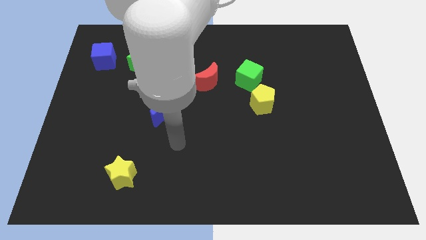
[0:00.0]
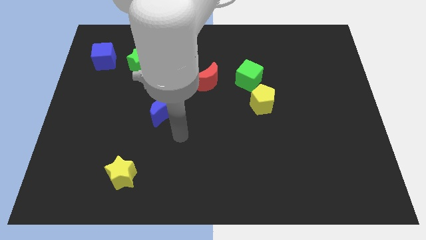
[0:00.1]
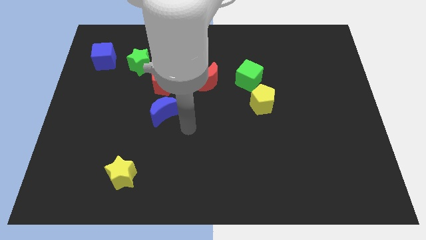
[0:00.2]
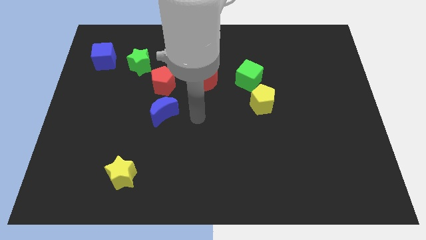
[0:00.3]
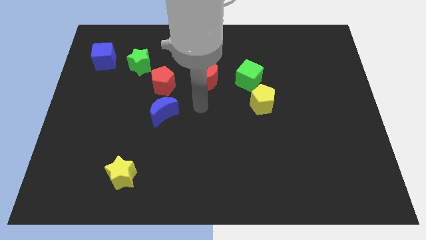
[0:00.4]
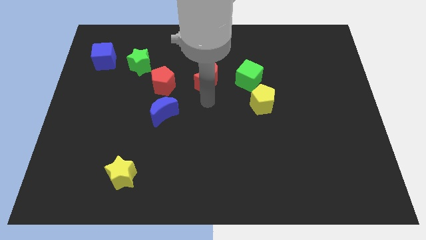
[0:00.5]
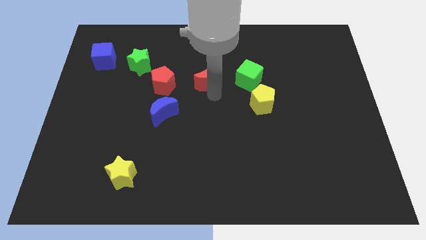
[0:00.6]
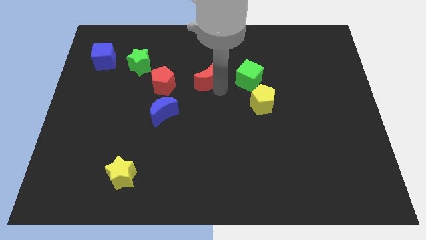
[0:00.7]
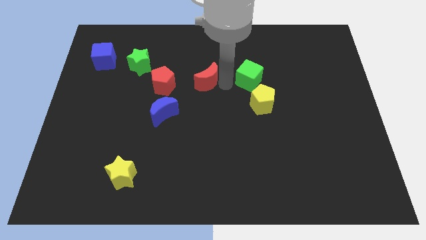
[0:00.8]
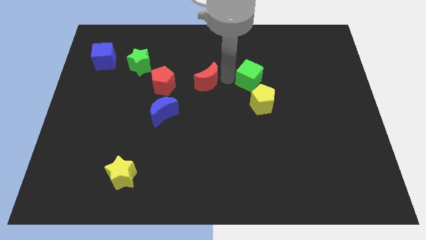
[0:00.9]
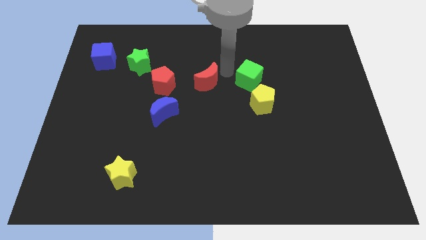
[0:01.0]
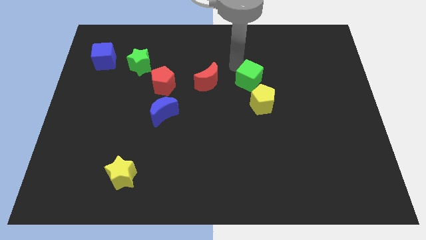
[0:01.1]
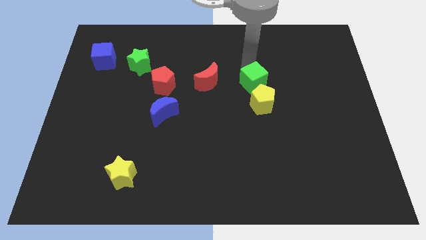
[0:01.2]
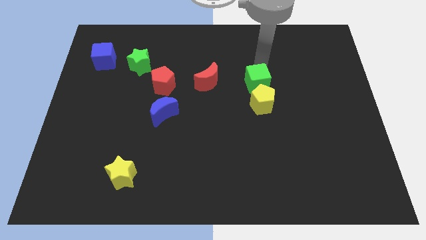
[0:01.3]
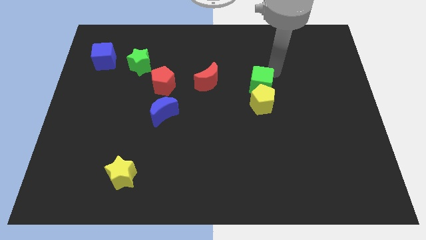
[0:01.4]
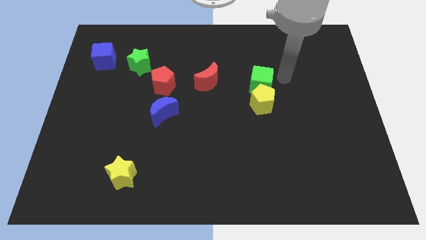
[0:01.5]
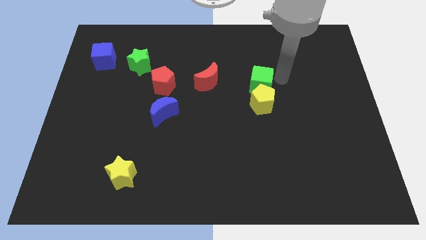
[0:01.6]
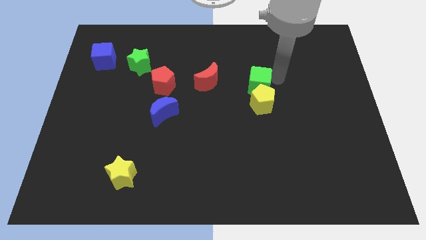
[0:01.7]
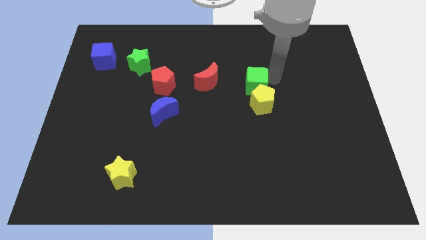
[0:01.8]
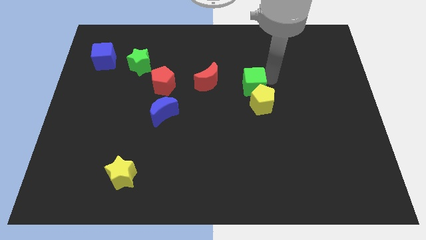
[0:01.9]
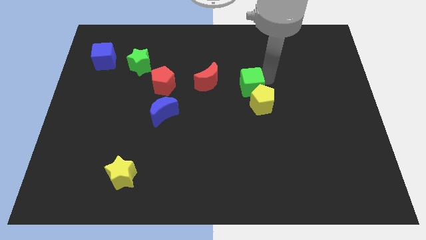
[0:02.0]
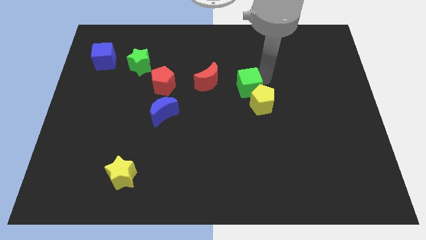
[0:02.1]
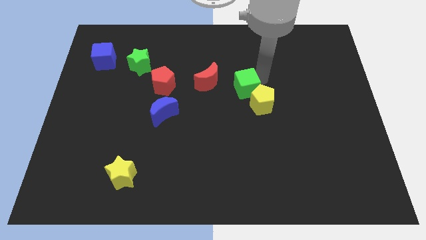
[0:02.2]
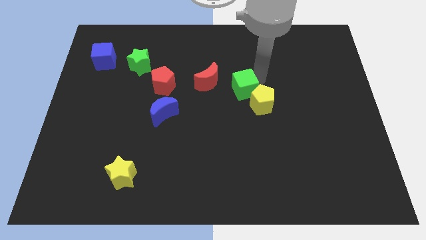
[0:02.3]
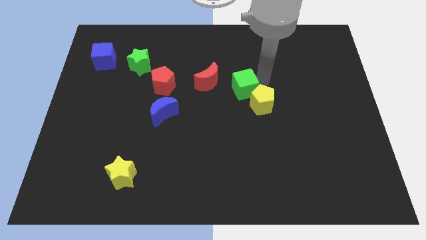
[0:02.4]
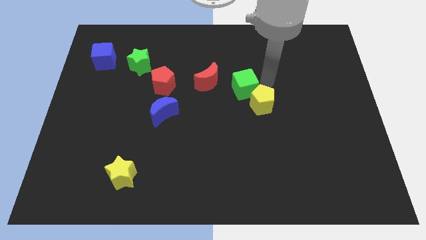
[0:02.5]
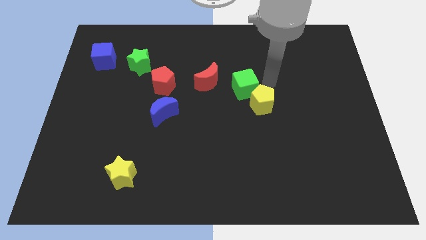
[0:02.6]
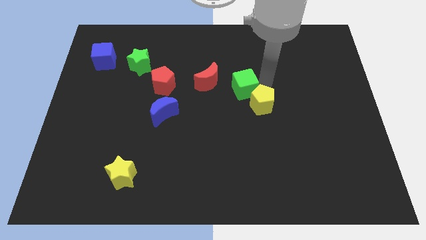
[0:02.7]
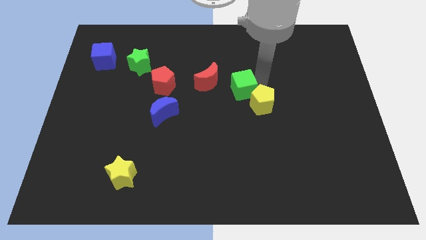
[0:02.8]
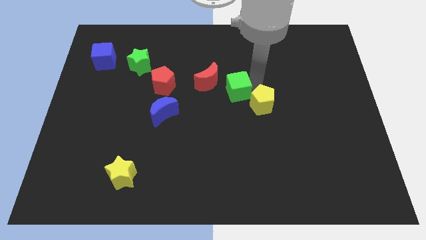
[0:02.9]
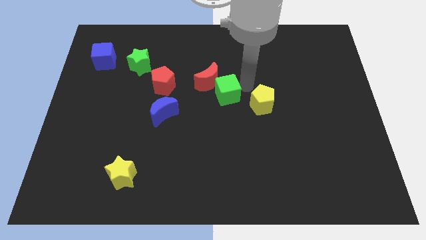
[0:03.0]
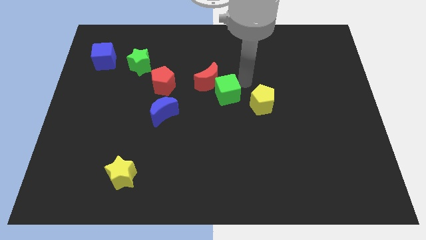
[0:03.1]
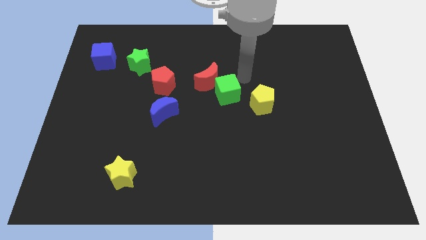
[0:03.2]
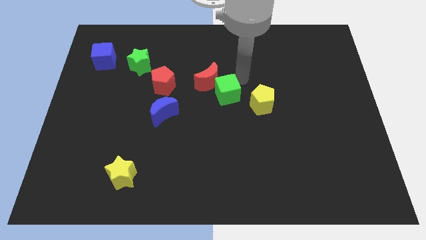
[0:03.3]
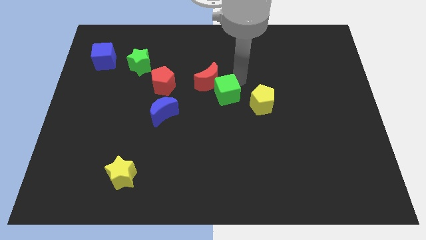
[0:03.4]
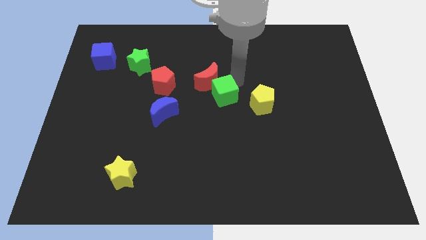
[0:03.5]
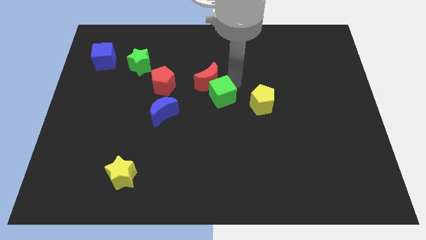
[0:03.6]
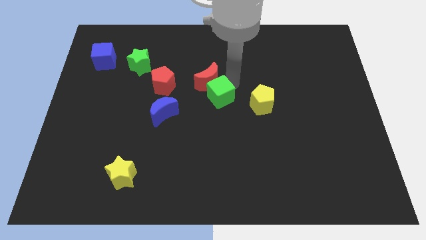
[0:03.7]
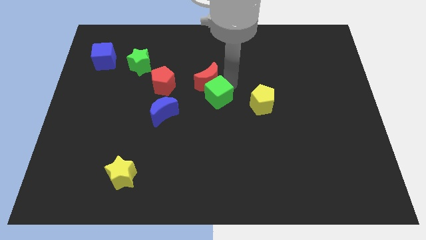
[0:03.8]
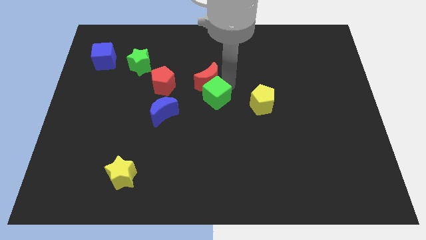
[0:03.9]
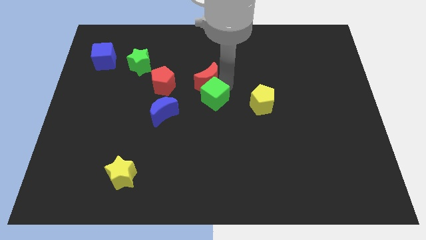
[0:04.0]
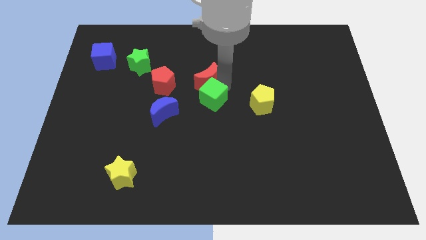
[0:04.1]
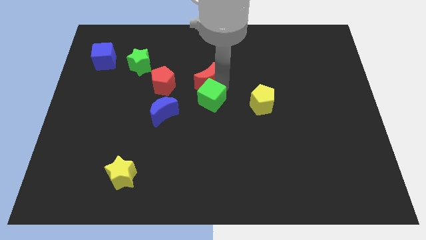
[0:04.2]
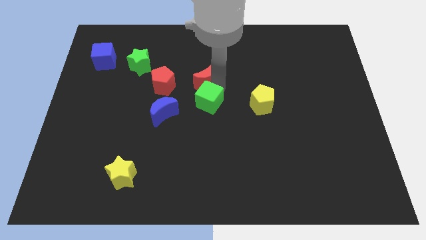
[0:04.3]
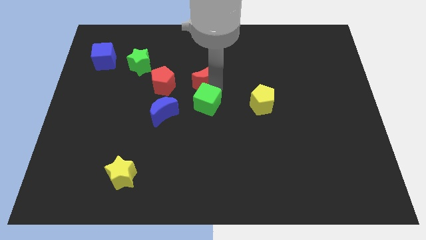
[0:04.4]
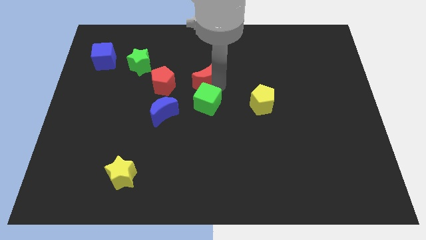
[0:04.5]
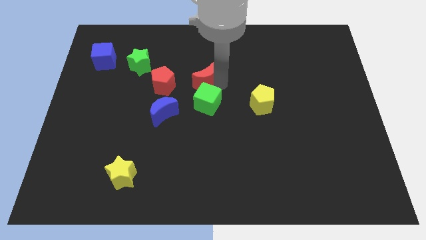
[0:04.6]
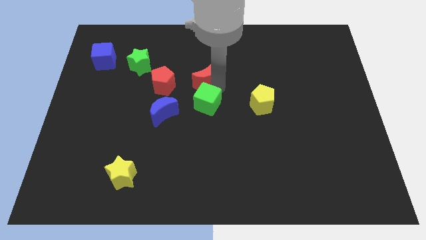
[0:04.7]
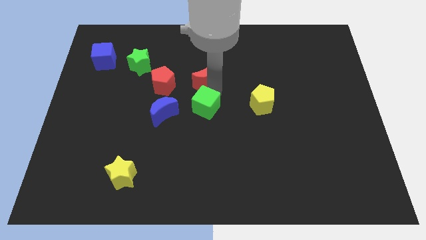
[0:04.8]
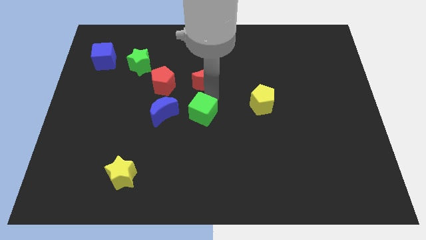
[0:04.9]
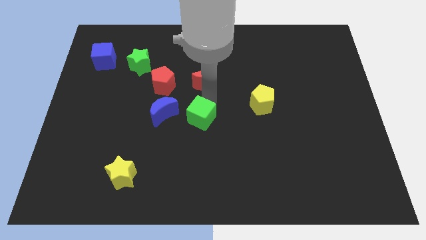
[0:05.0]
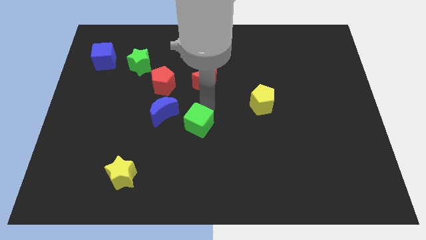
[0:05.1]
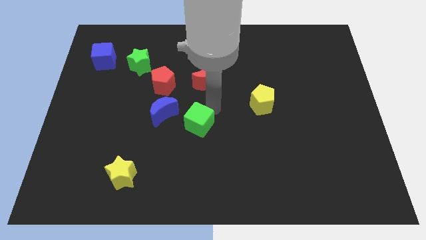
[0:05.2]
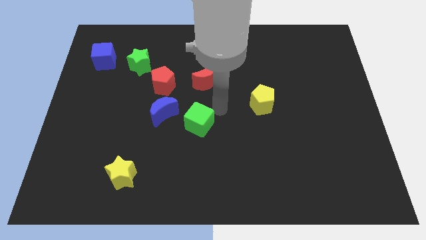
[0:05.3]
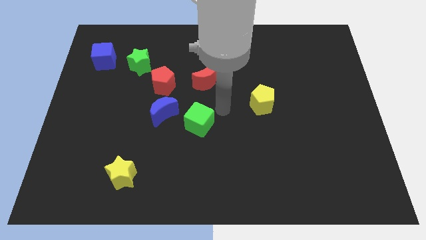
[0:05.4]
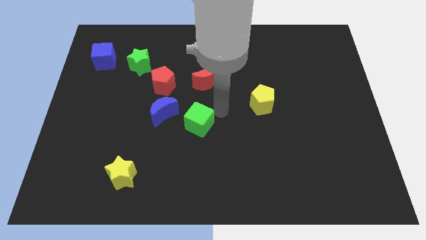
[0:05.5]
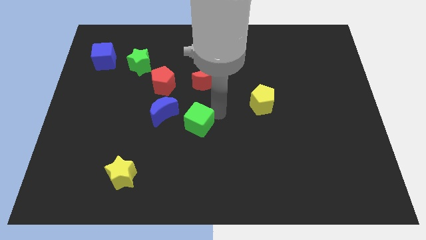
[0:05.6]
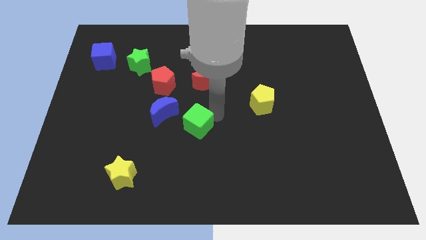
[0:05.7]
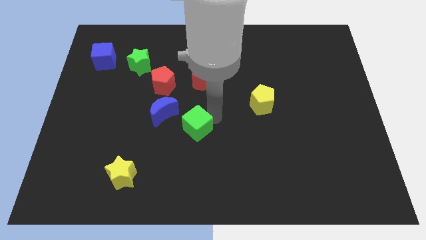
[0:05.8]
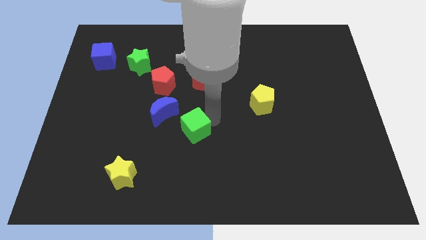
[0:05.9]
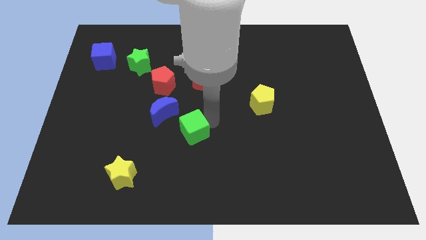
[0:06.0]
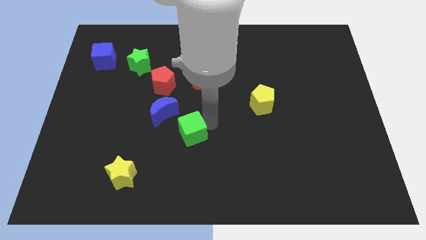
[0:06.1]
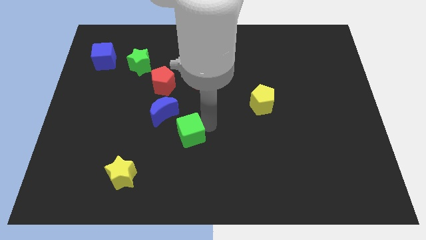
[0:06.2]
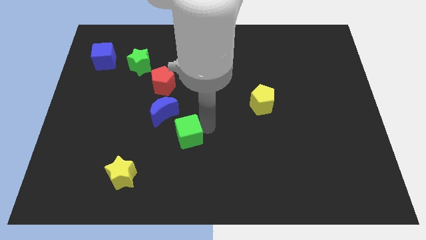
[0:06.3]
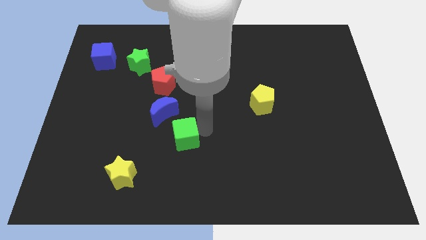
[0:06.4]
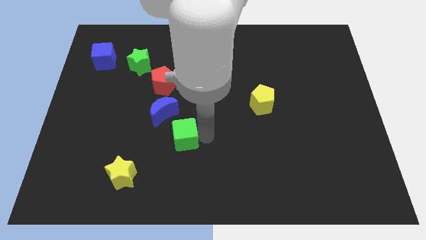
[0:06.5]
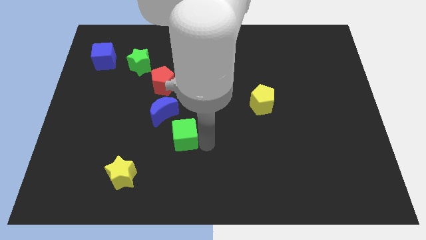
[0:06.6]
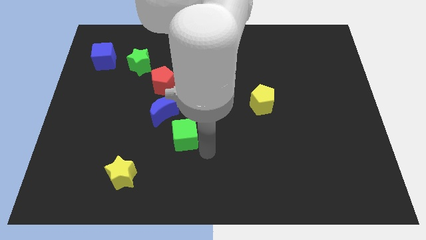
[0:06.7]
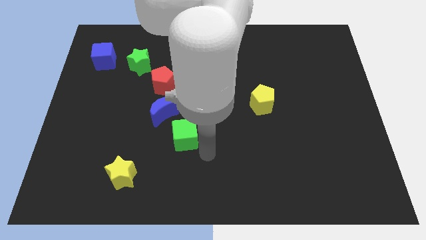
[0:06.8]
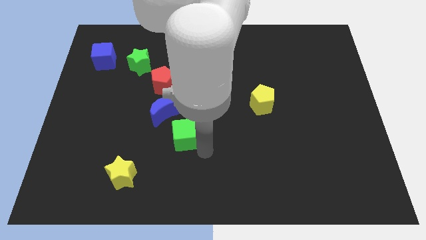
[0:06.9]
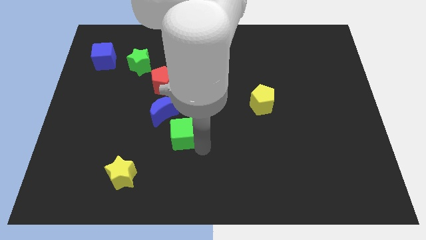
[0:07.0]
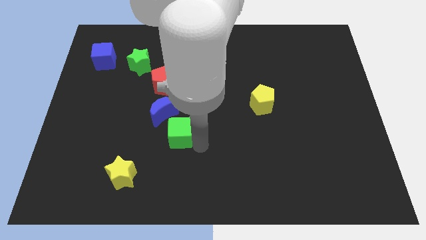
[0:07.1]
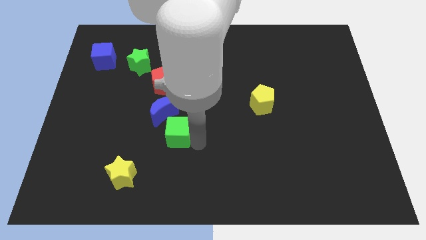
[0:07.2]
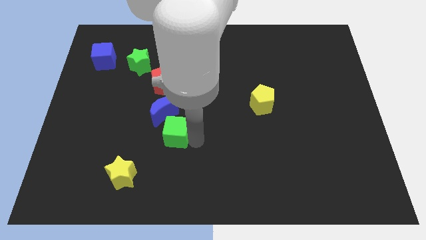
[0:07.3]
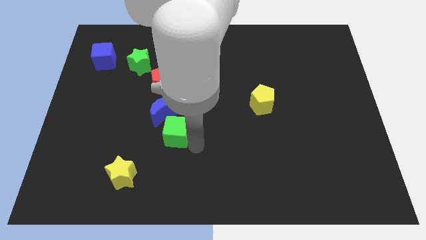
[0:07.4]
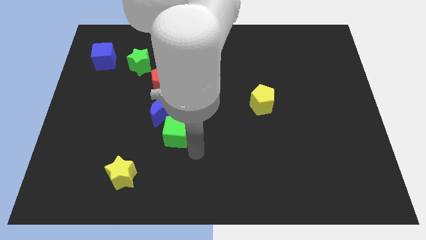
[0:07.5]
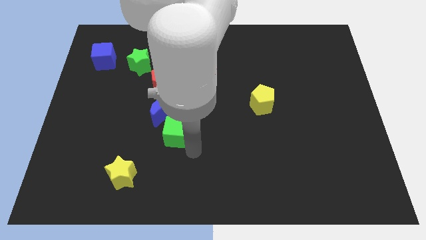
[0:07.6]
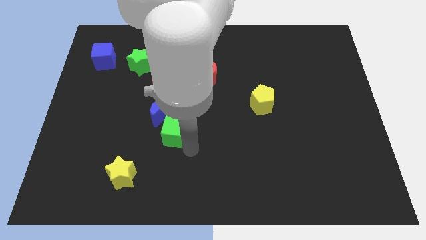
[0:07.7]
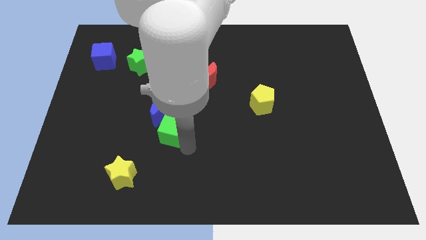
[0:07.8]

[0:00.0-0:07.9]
push the green cube to the bottom side of the red pentagon
